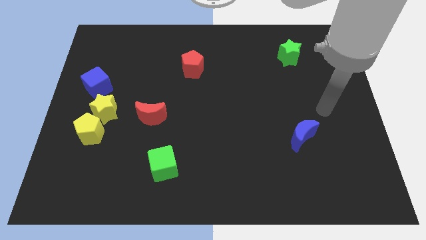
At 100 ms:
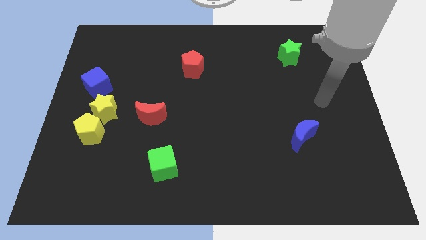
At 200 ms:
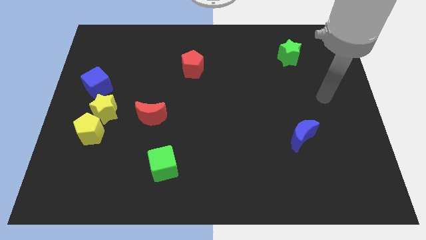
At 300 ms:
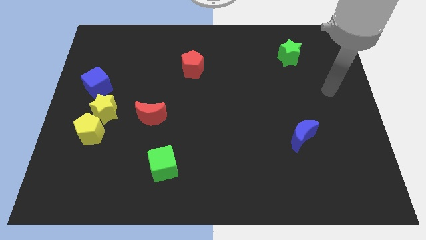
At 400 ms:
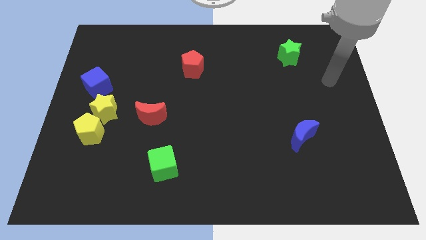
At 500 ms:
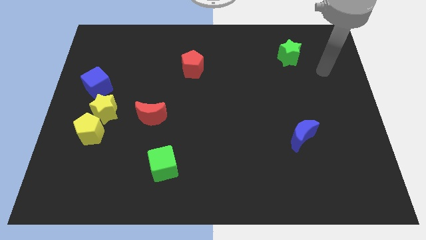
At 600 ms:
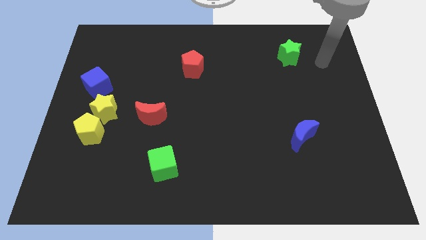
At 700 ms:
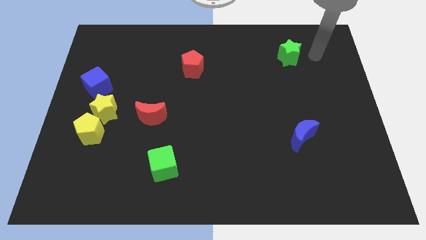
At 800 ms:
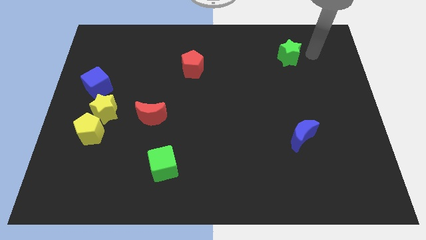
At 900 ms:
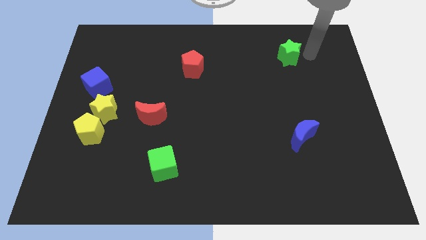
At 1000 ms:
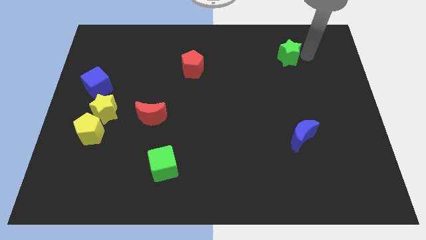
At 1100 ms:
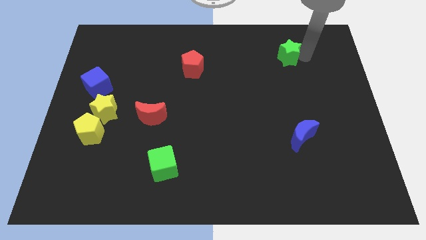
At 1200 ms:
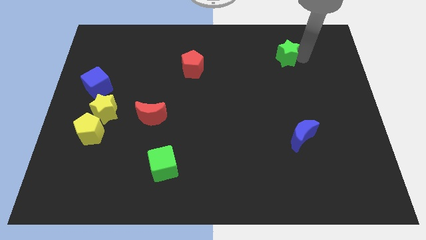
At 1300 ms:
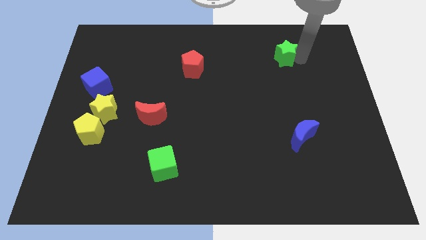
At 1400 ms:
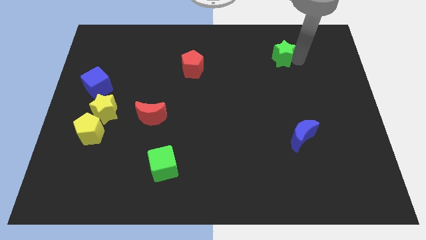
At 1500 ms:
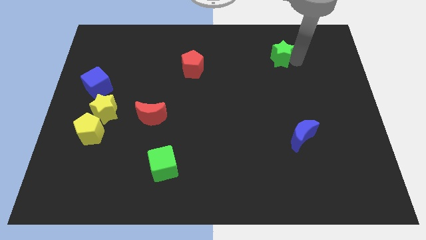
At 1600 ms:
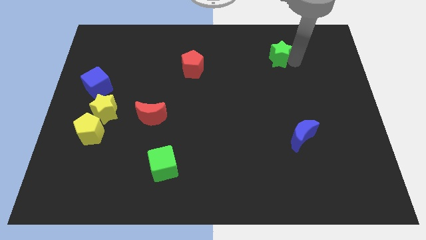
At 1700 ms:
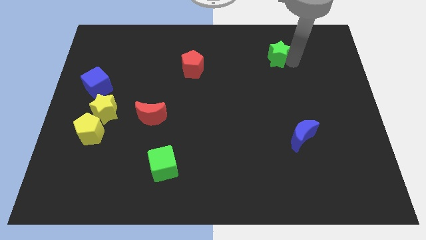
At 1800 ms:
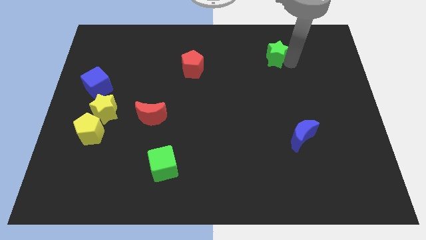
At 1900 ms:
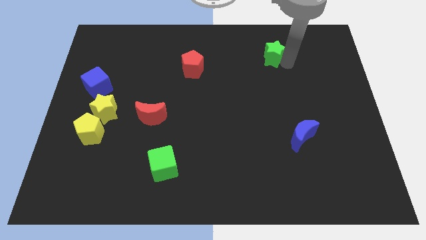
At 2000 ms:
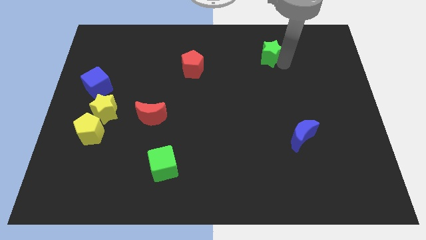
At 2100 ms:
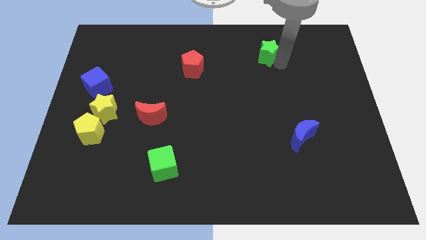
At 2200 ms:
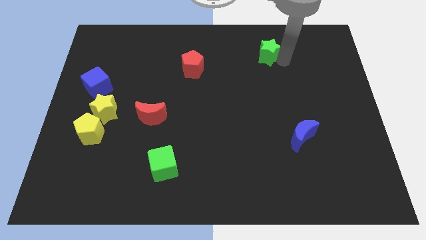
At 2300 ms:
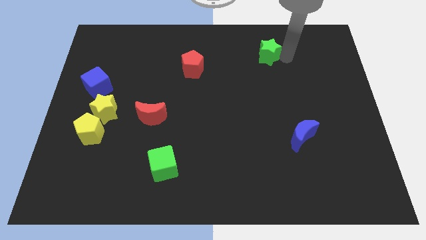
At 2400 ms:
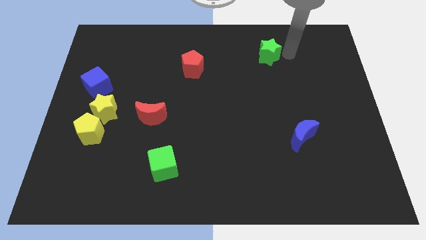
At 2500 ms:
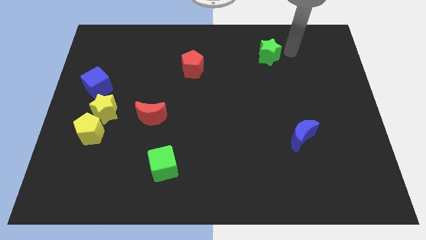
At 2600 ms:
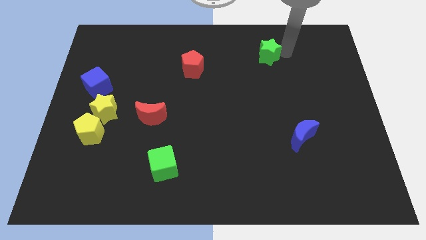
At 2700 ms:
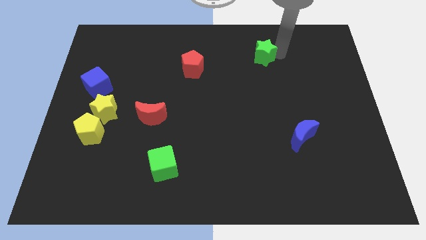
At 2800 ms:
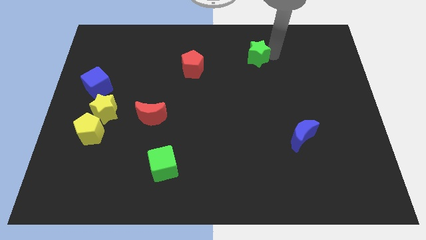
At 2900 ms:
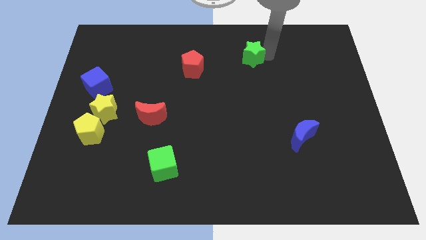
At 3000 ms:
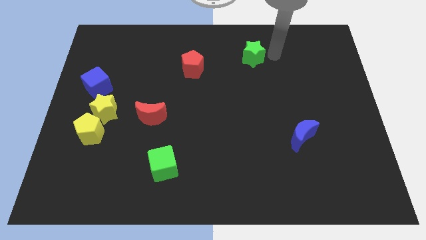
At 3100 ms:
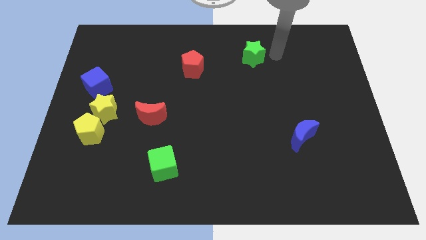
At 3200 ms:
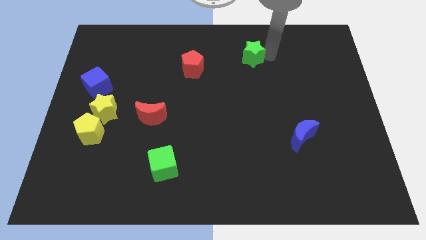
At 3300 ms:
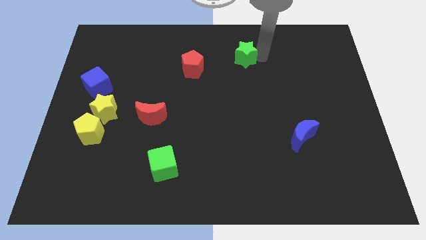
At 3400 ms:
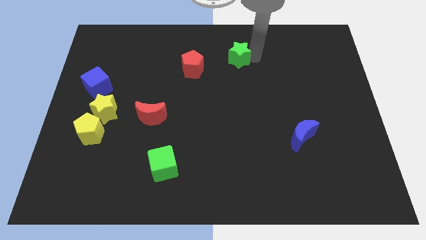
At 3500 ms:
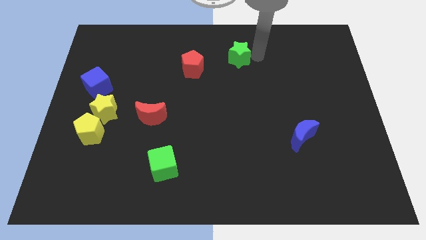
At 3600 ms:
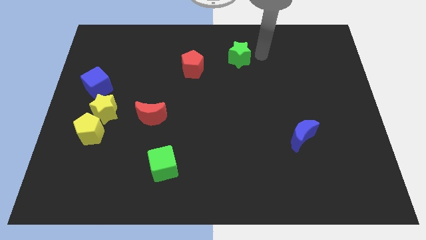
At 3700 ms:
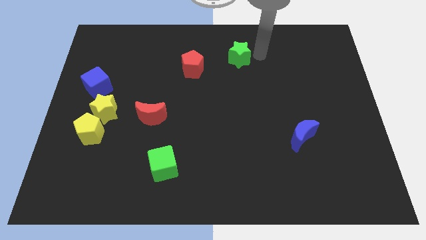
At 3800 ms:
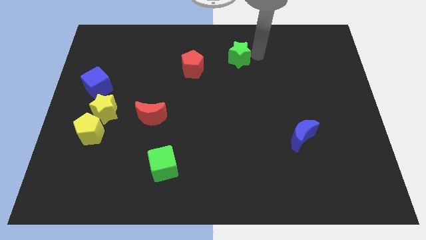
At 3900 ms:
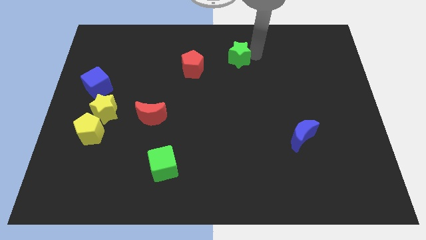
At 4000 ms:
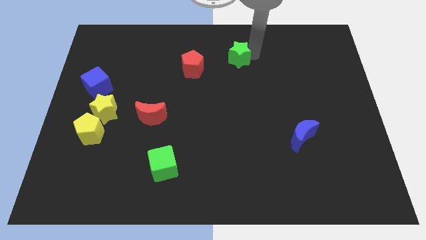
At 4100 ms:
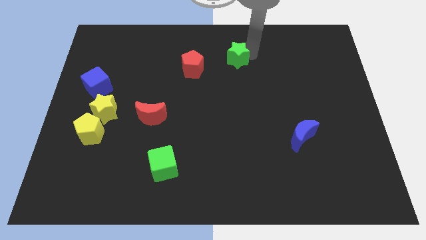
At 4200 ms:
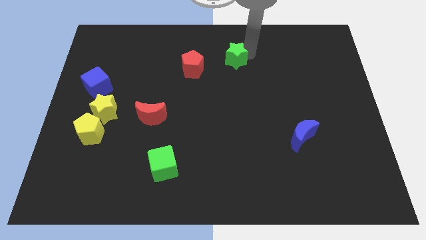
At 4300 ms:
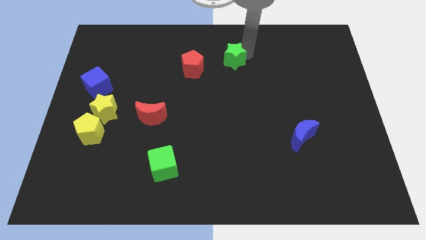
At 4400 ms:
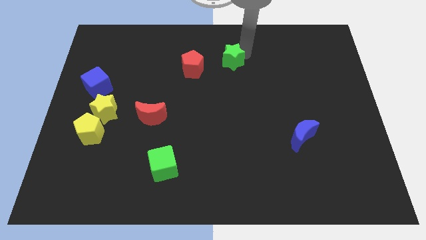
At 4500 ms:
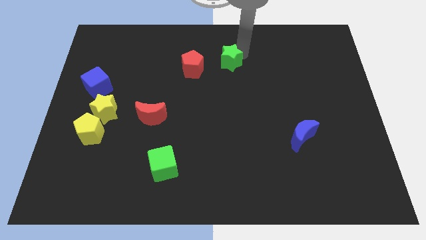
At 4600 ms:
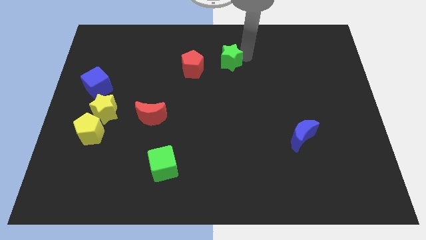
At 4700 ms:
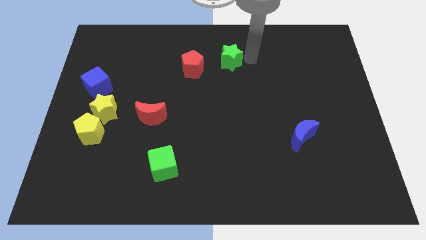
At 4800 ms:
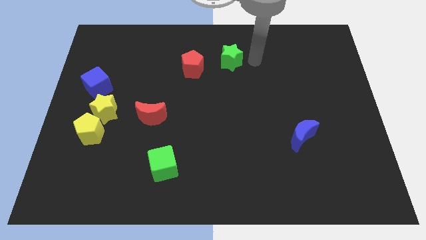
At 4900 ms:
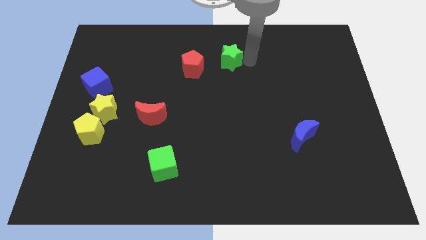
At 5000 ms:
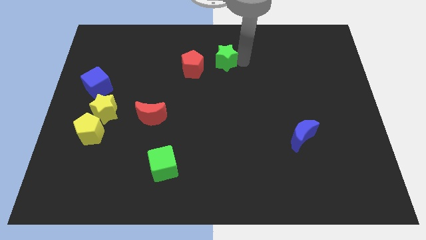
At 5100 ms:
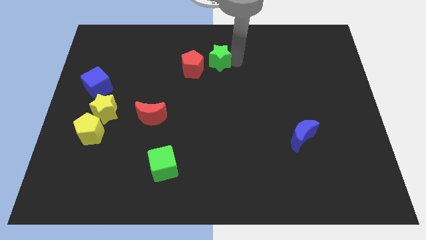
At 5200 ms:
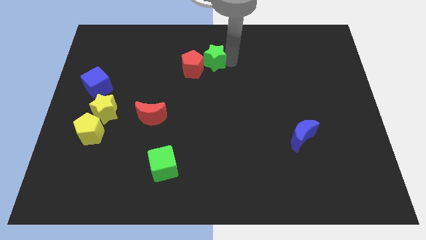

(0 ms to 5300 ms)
move the green star next to the red pentagon

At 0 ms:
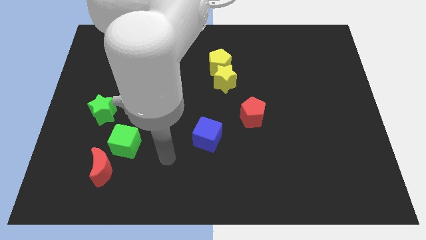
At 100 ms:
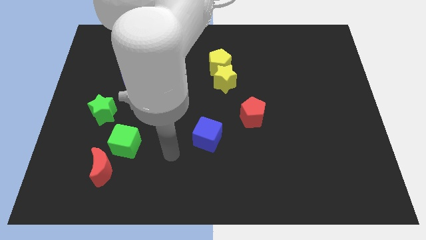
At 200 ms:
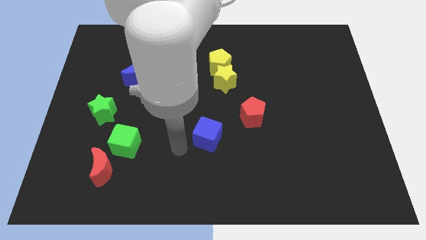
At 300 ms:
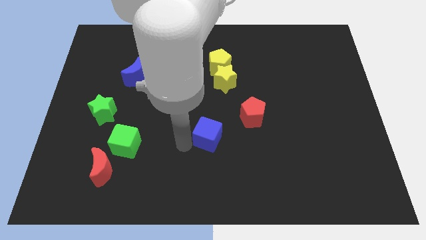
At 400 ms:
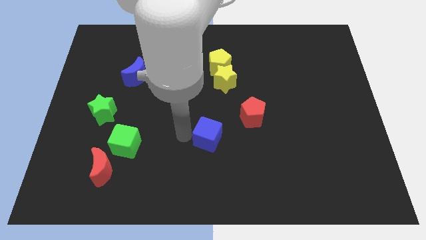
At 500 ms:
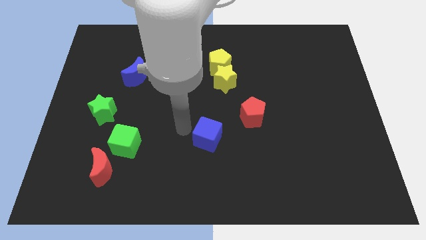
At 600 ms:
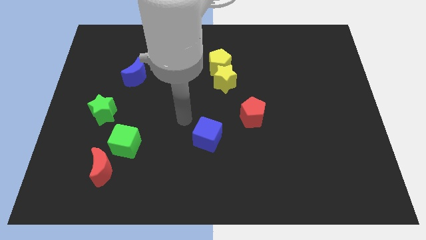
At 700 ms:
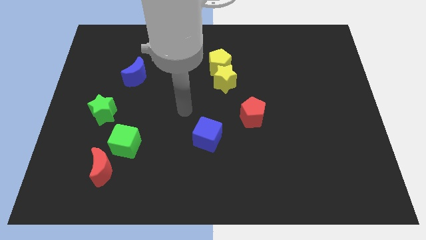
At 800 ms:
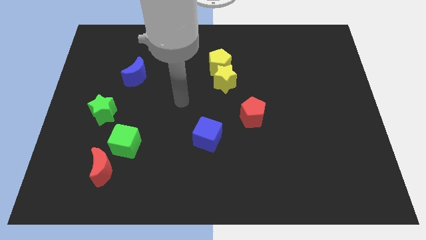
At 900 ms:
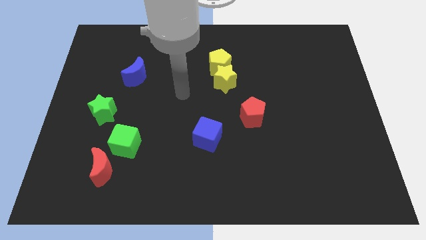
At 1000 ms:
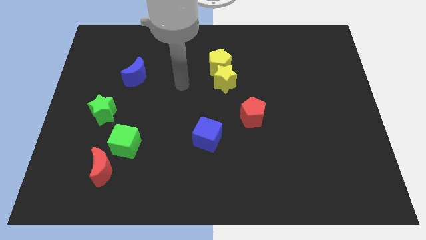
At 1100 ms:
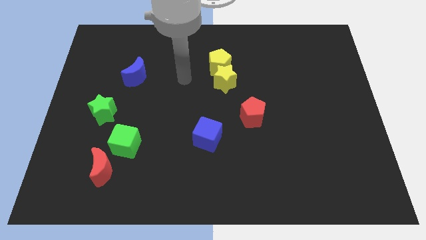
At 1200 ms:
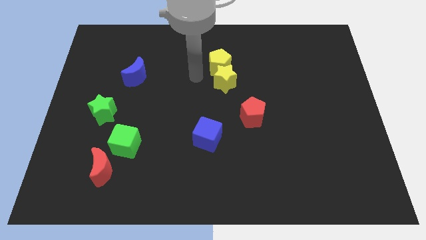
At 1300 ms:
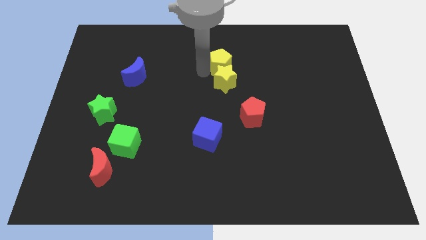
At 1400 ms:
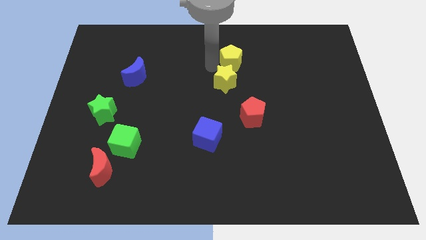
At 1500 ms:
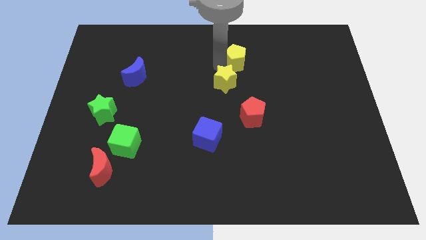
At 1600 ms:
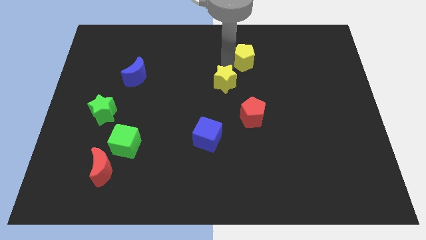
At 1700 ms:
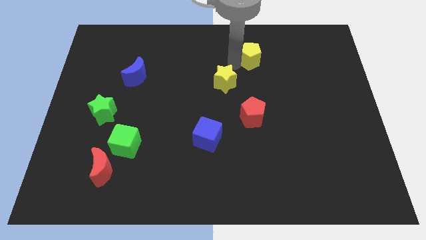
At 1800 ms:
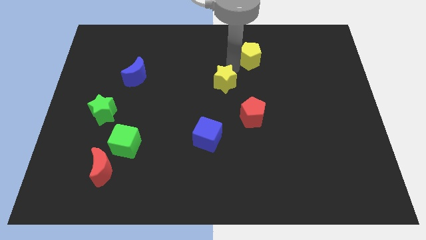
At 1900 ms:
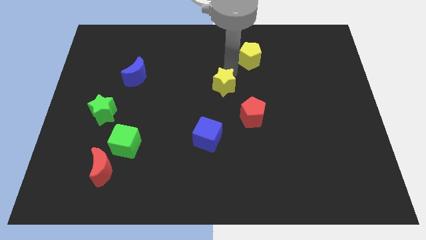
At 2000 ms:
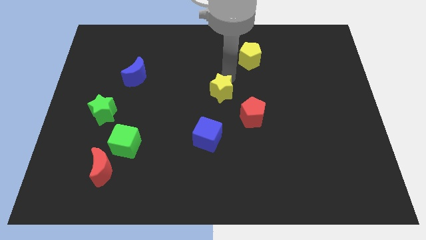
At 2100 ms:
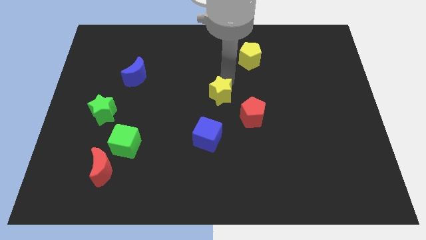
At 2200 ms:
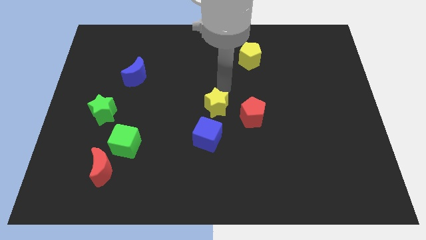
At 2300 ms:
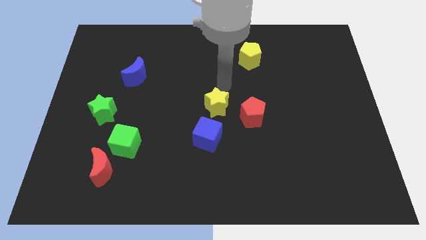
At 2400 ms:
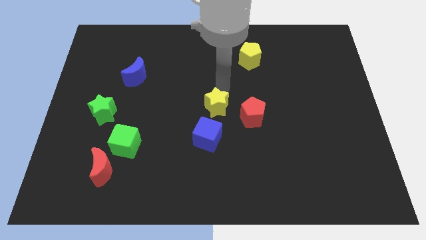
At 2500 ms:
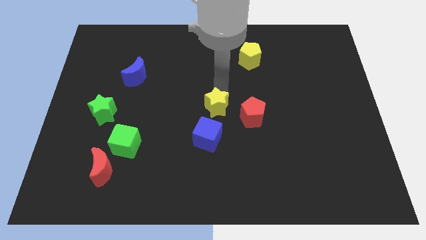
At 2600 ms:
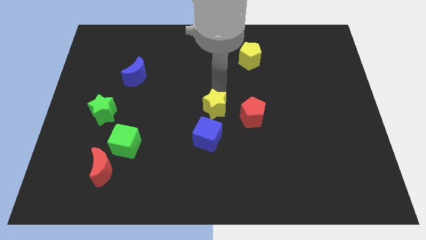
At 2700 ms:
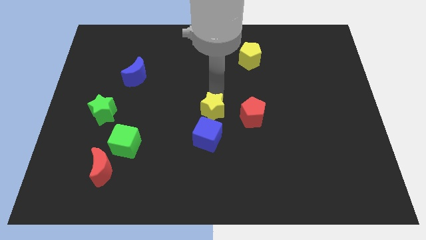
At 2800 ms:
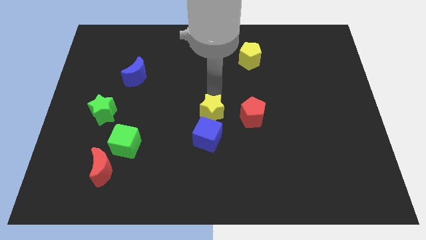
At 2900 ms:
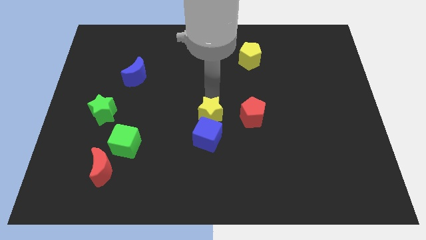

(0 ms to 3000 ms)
put the yellow star next to the blue cube
